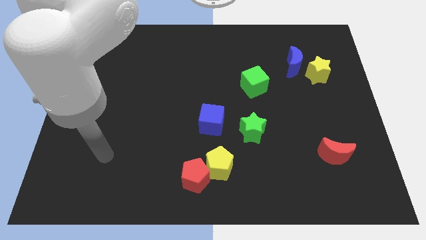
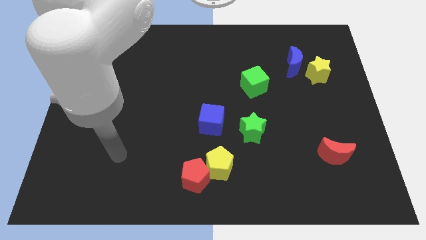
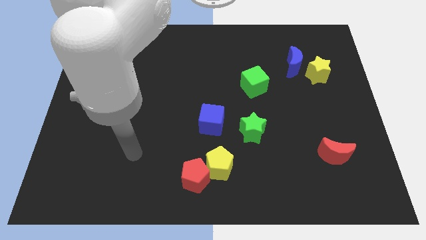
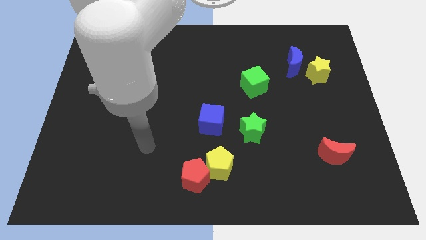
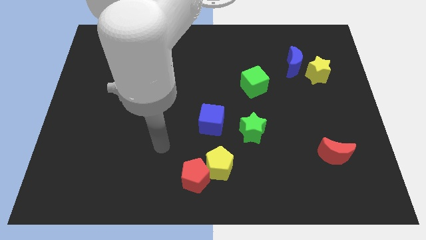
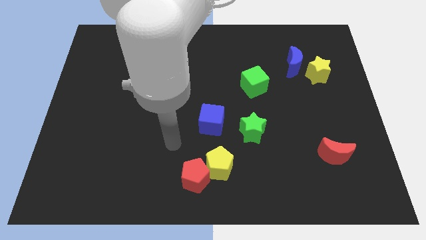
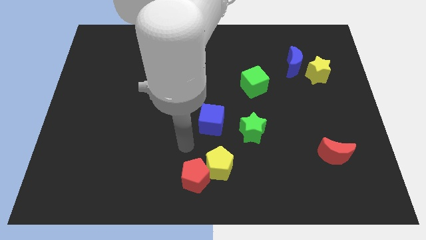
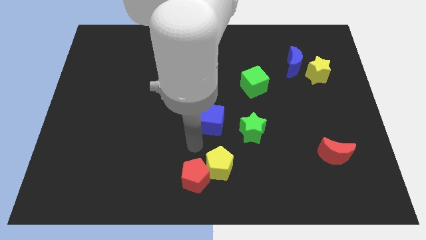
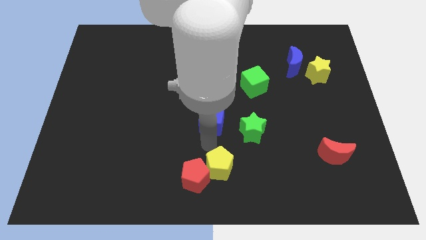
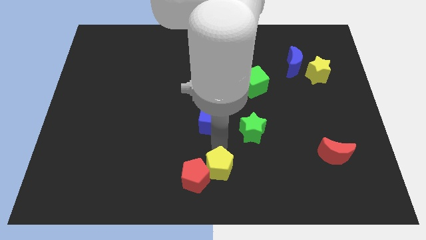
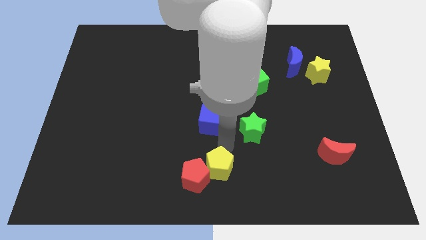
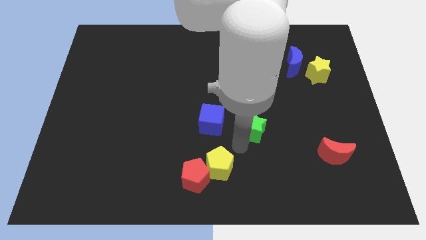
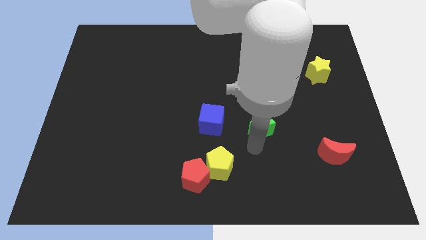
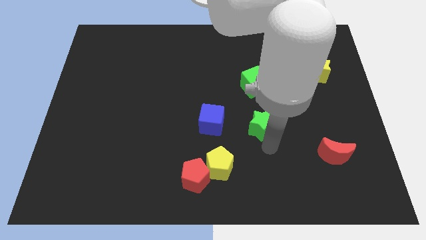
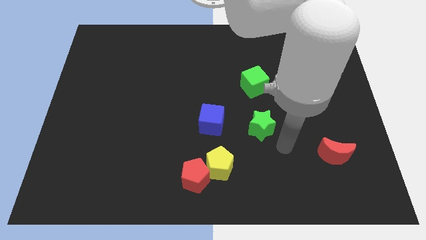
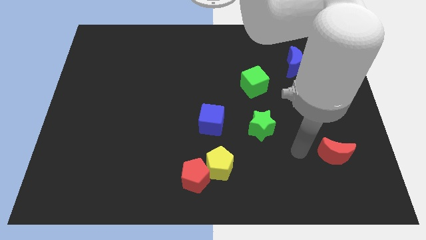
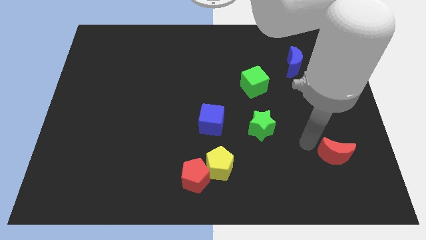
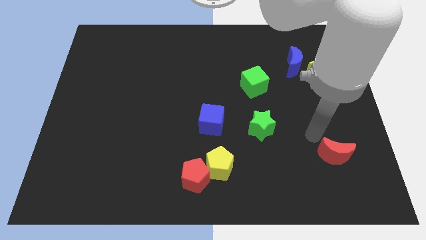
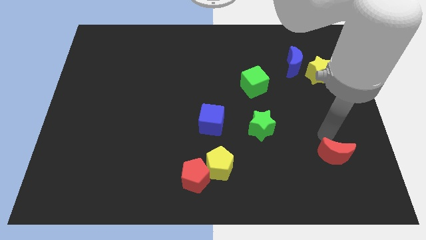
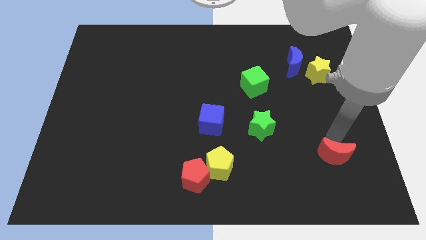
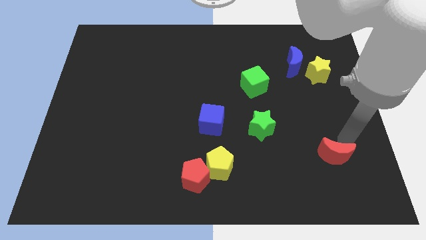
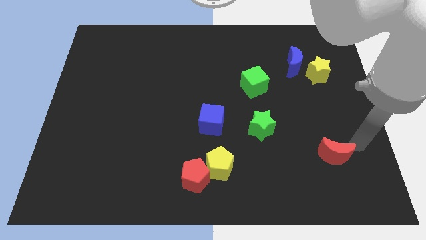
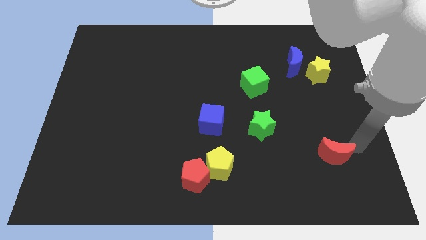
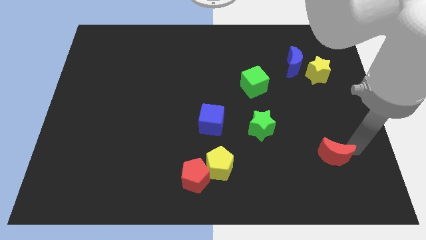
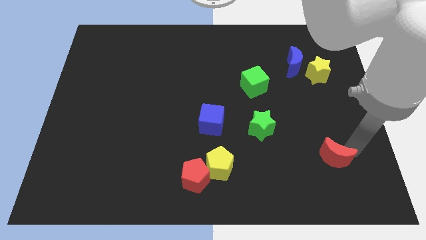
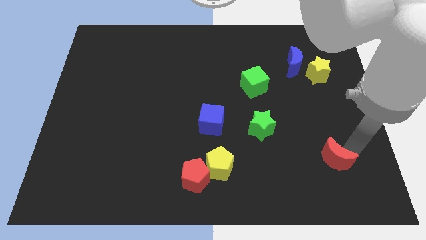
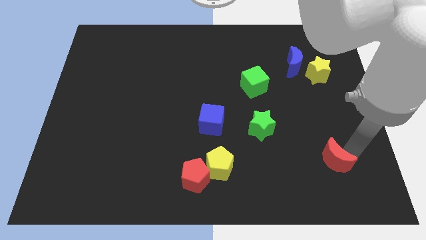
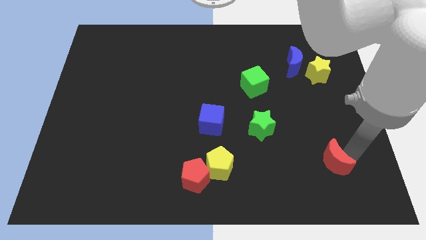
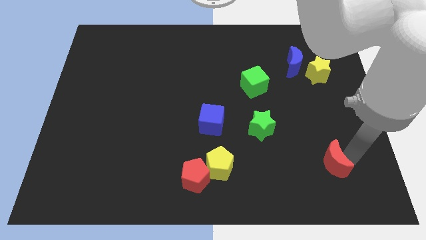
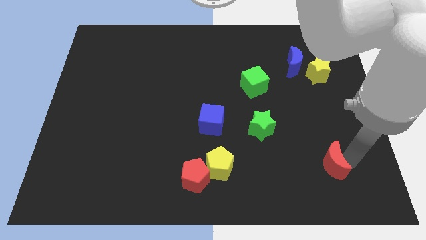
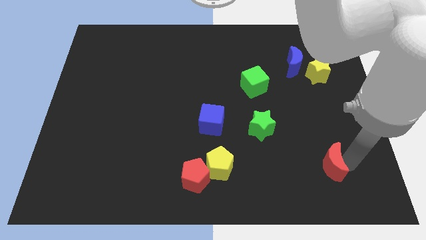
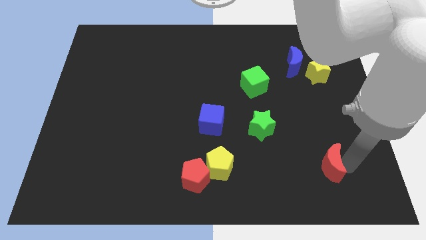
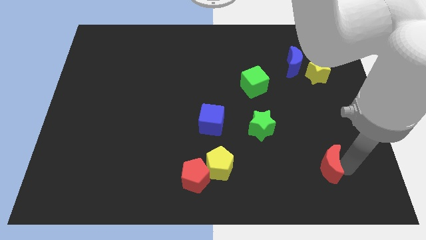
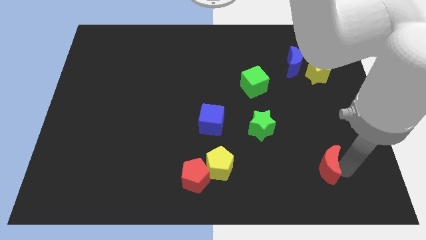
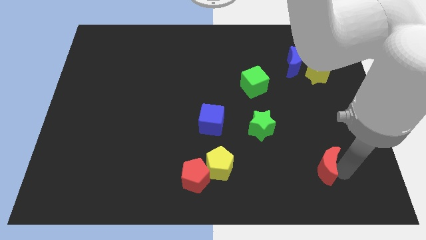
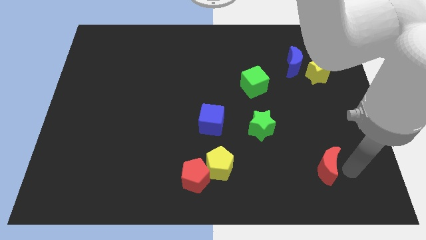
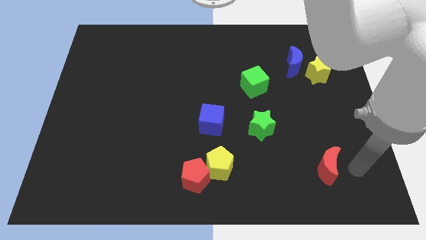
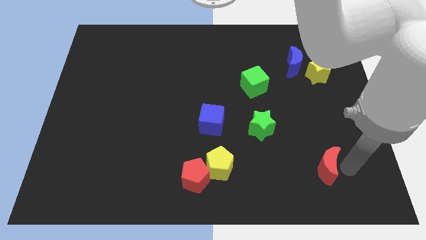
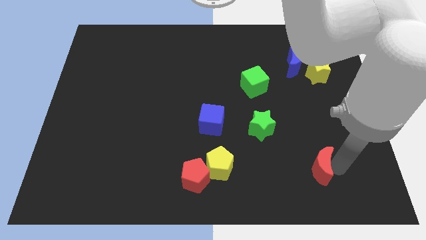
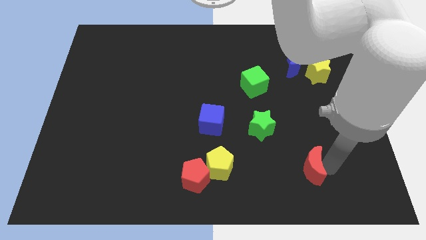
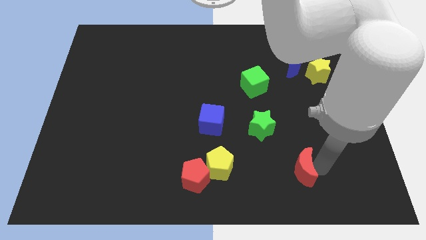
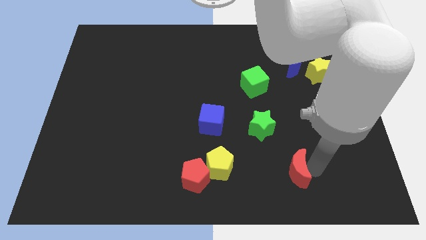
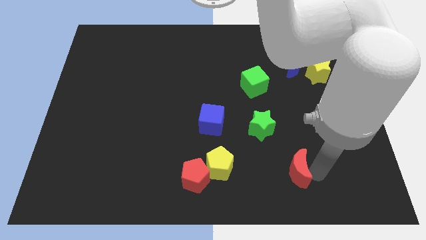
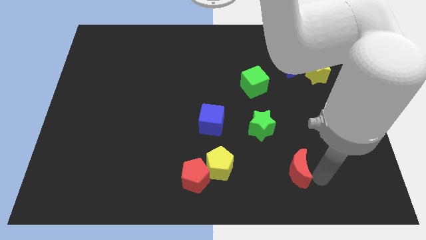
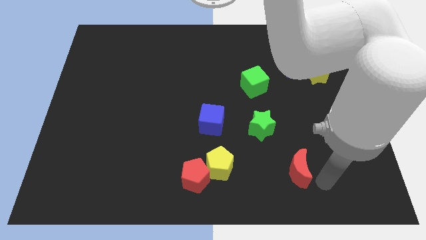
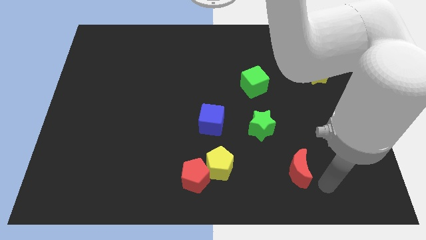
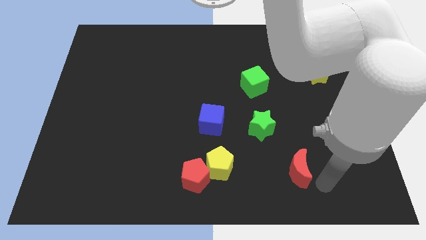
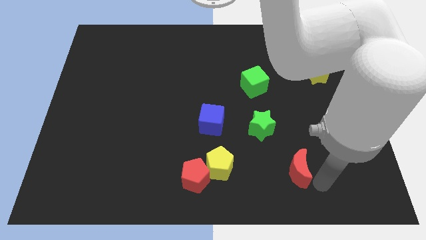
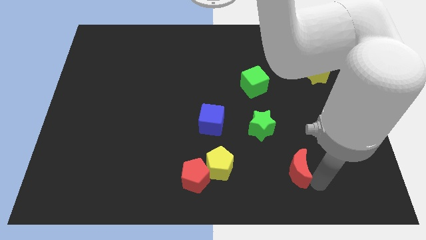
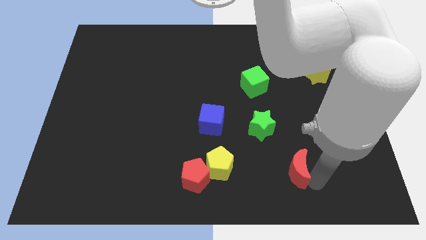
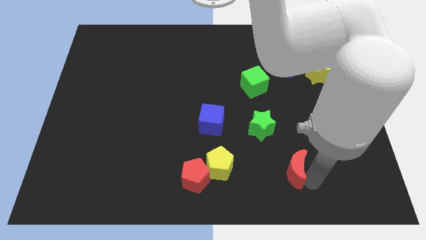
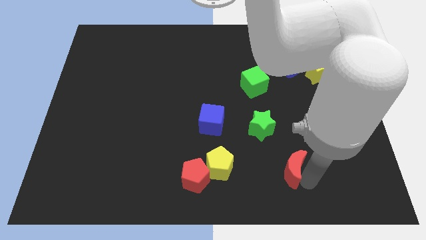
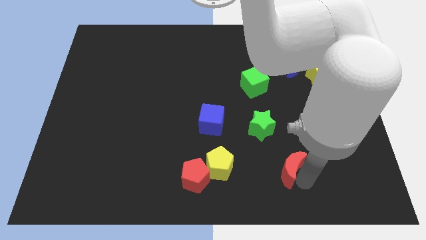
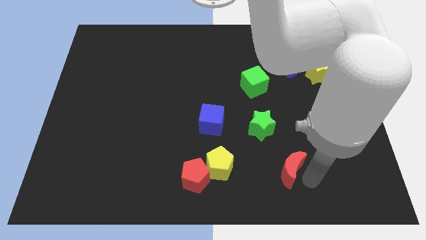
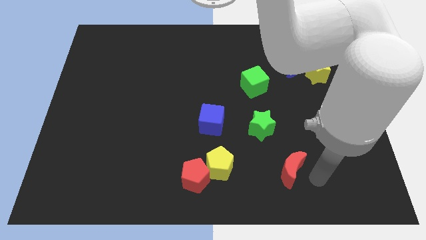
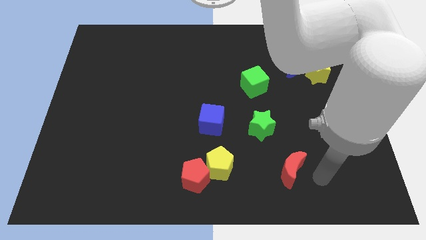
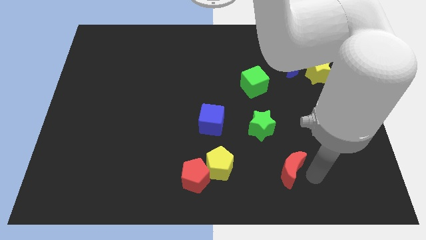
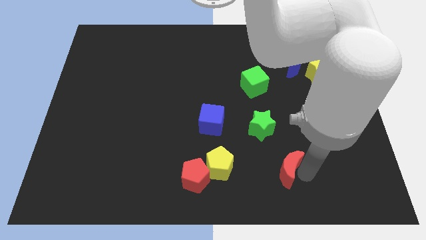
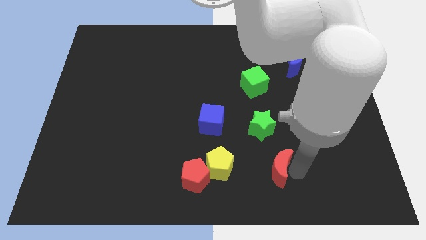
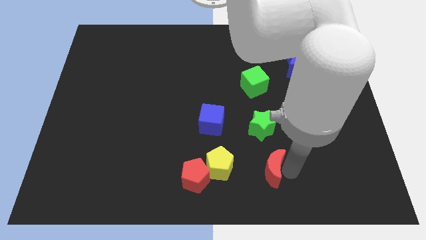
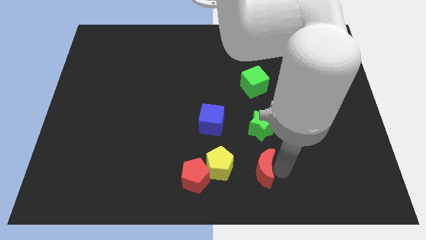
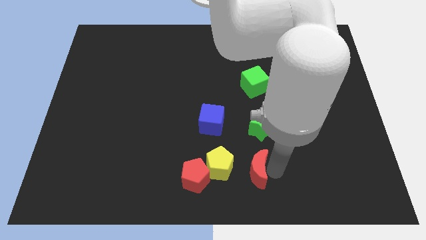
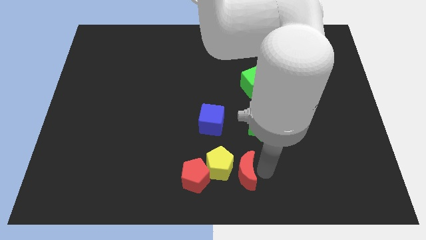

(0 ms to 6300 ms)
slide the red moon towards the yellow pentagon

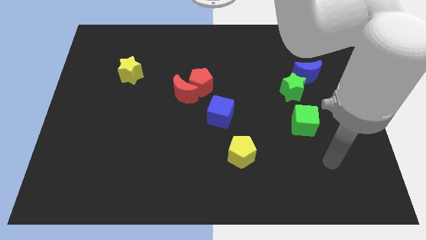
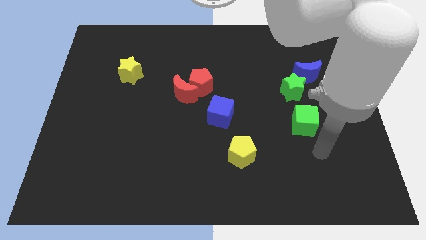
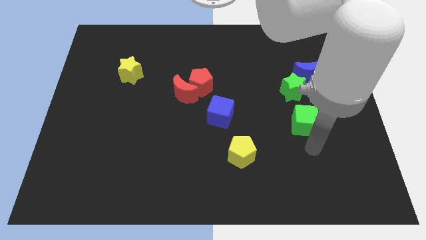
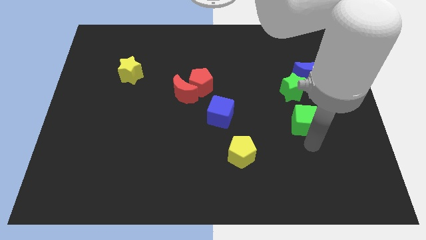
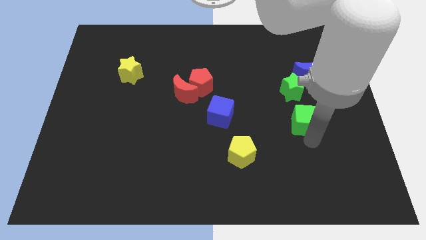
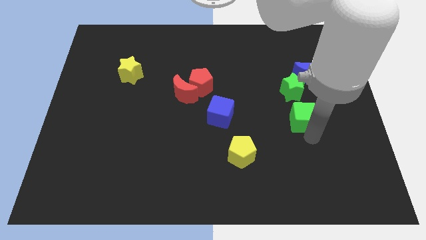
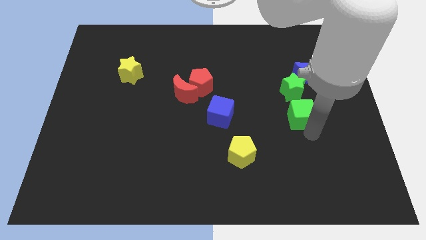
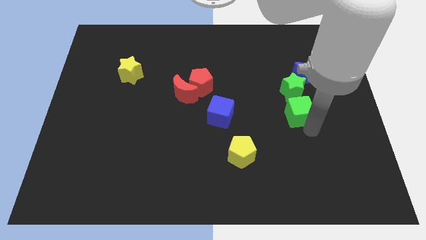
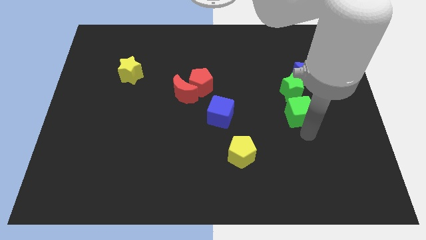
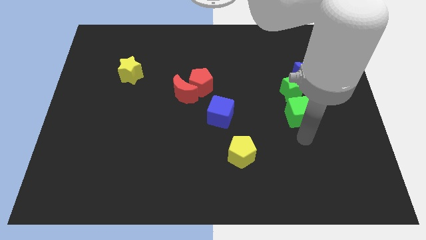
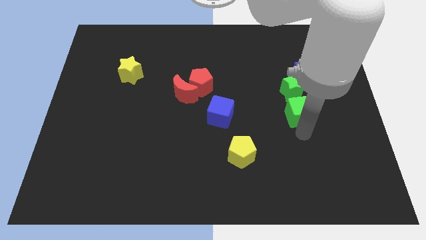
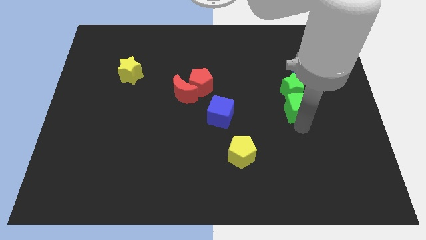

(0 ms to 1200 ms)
push the green cube close to the green star
